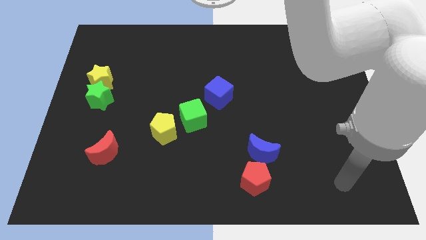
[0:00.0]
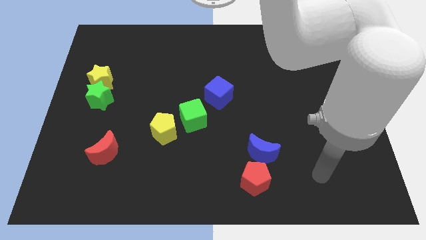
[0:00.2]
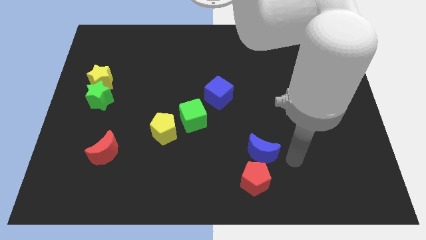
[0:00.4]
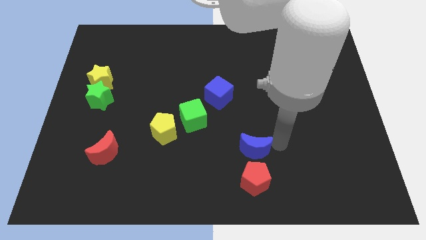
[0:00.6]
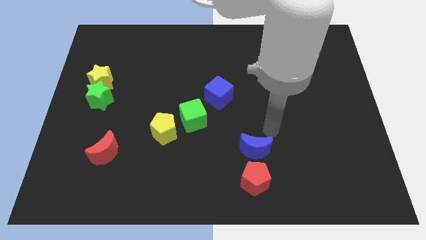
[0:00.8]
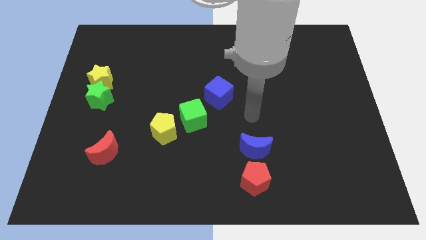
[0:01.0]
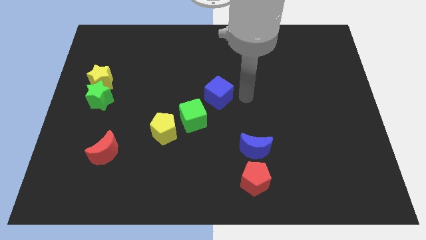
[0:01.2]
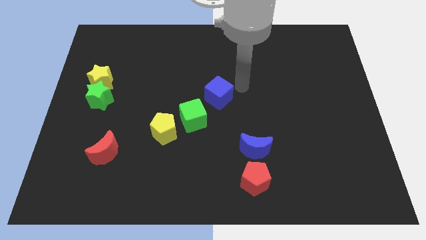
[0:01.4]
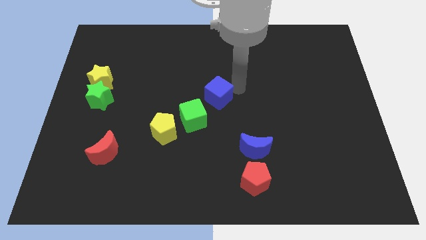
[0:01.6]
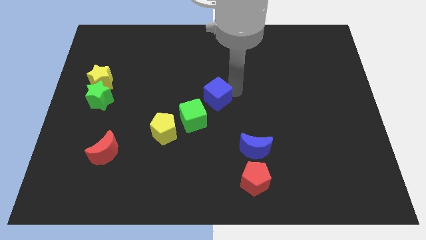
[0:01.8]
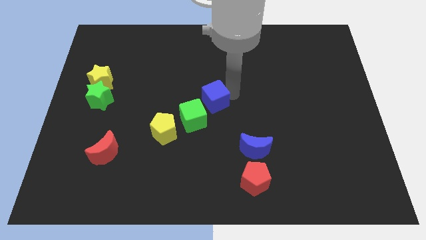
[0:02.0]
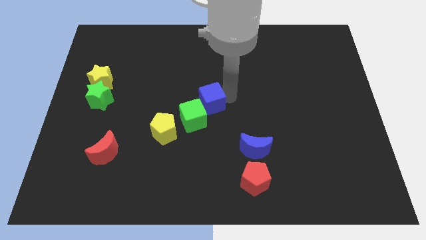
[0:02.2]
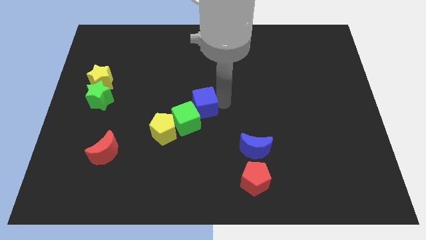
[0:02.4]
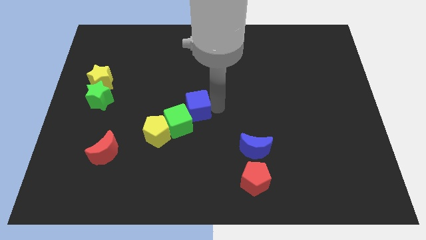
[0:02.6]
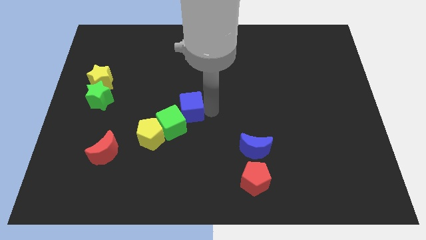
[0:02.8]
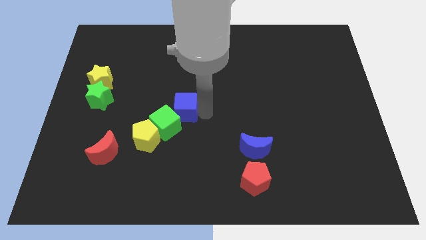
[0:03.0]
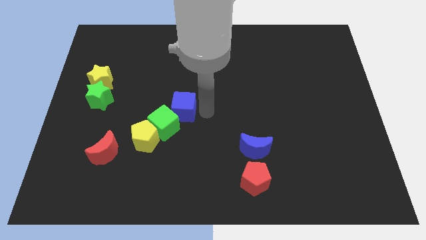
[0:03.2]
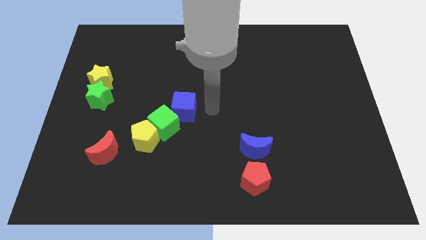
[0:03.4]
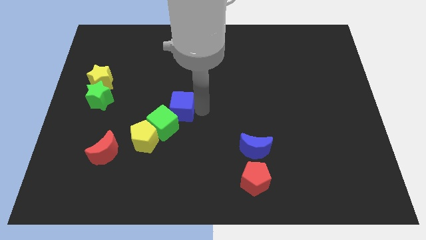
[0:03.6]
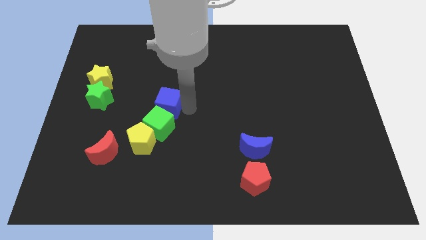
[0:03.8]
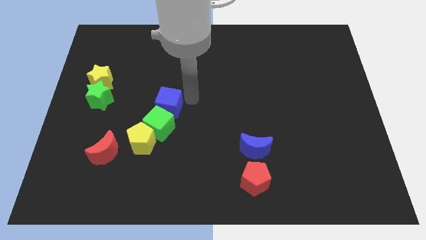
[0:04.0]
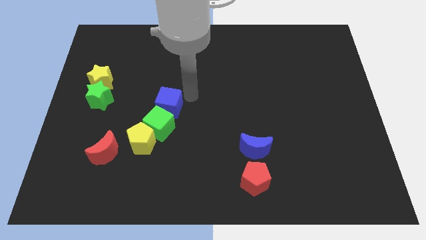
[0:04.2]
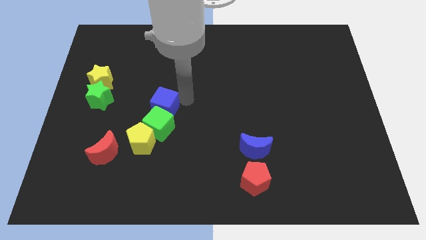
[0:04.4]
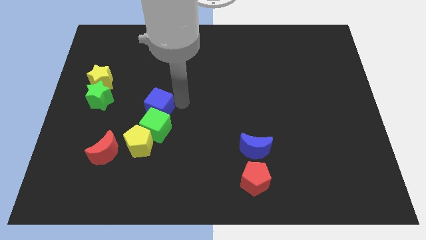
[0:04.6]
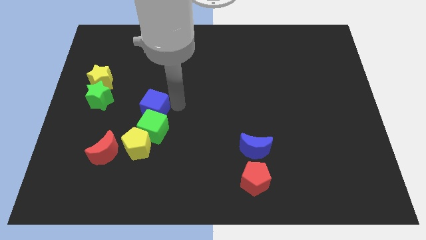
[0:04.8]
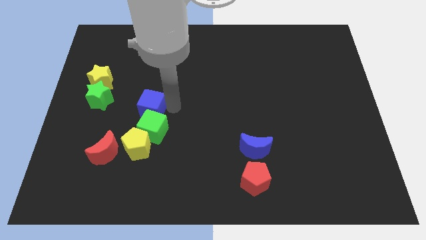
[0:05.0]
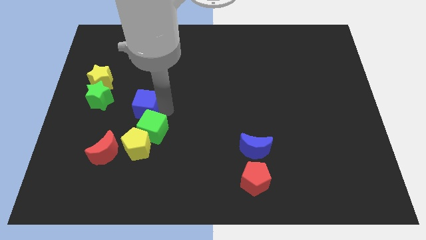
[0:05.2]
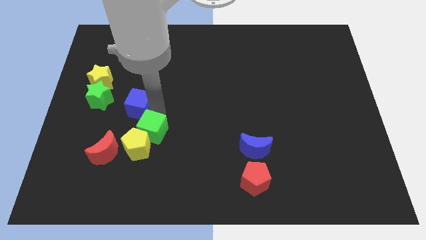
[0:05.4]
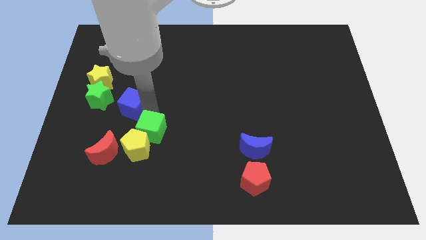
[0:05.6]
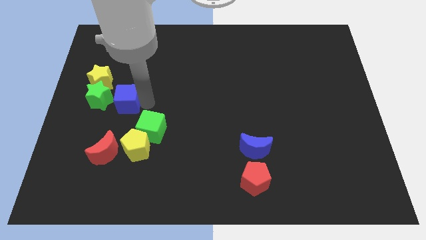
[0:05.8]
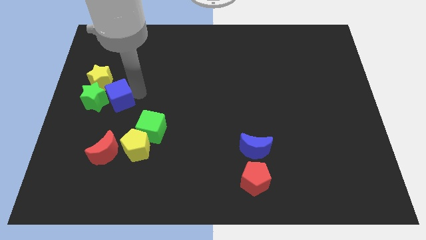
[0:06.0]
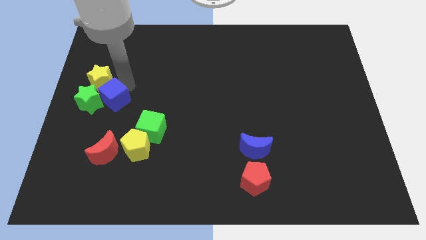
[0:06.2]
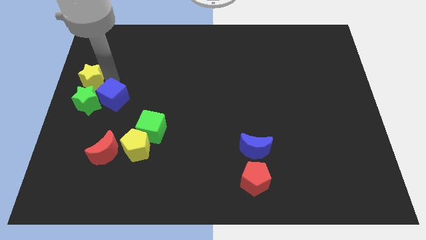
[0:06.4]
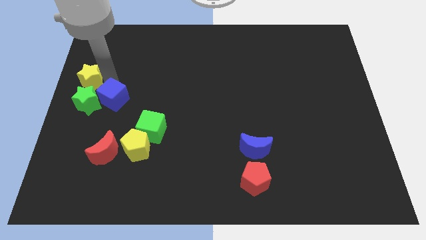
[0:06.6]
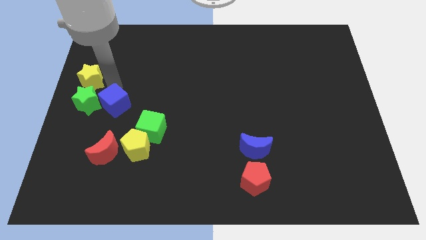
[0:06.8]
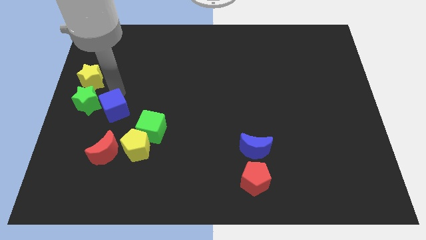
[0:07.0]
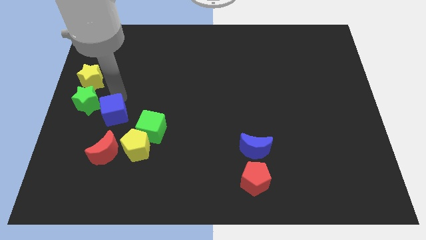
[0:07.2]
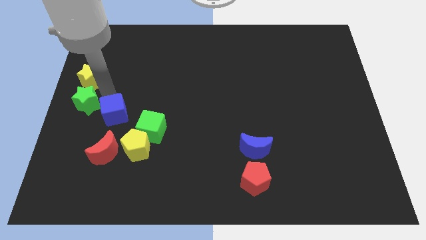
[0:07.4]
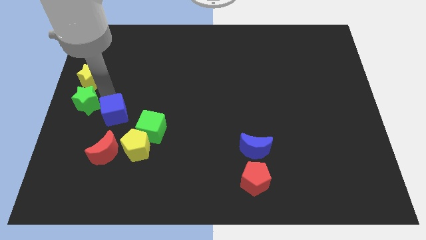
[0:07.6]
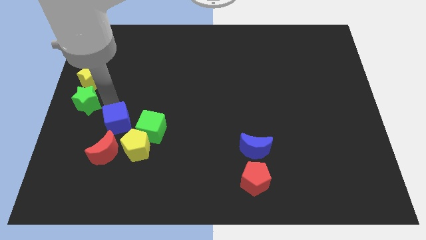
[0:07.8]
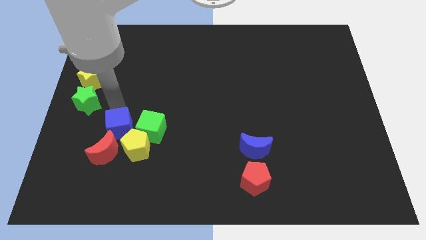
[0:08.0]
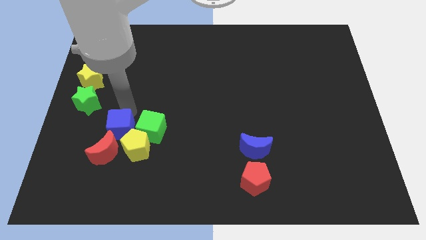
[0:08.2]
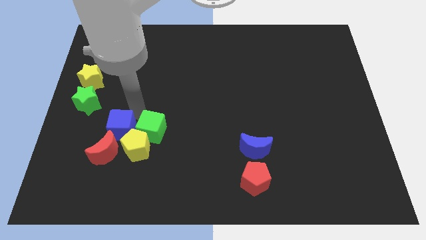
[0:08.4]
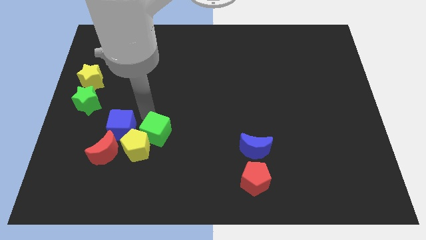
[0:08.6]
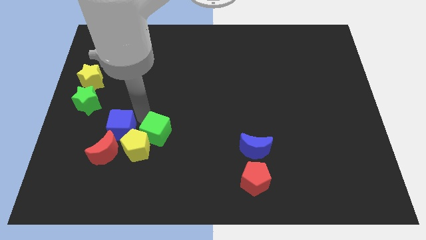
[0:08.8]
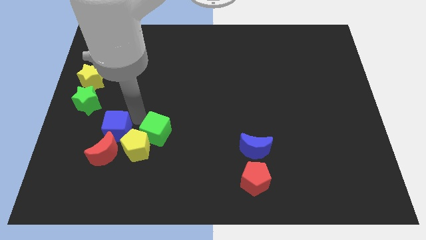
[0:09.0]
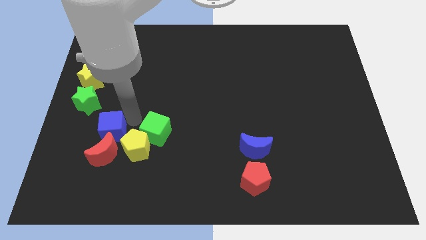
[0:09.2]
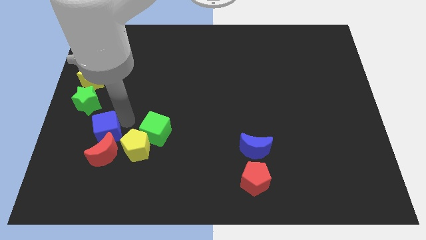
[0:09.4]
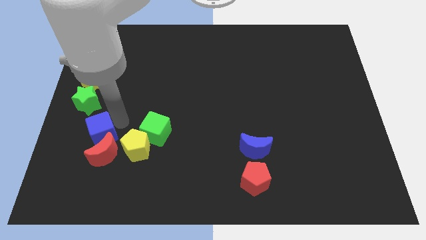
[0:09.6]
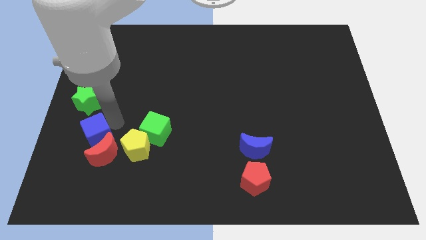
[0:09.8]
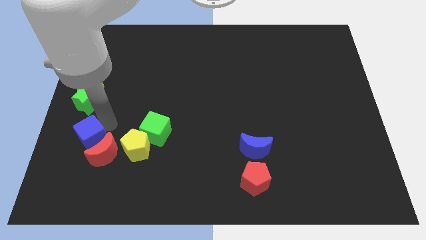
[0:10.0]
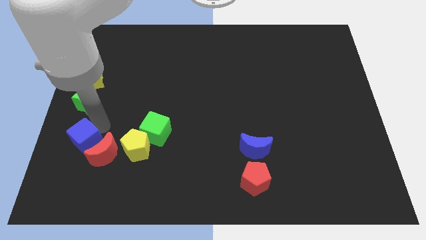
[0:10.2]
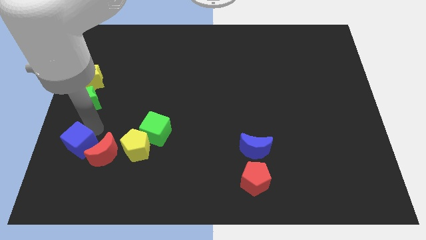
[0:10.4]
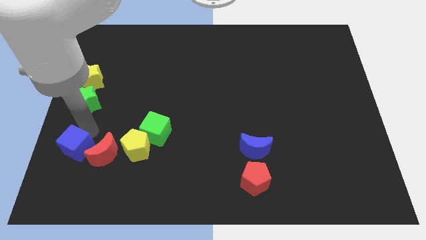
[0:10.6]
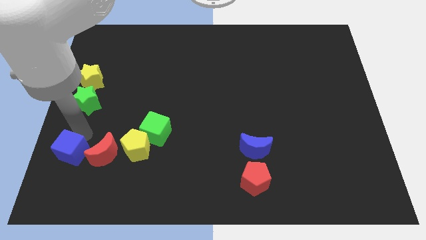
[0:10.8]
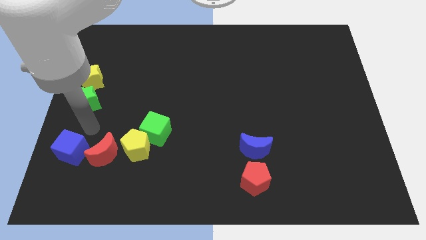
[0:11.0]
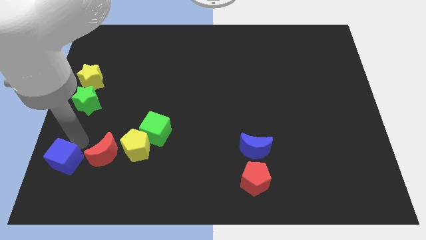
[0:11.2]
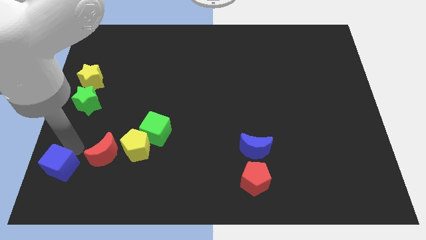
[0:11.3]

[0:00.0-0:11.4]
slide the blue cube to the bottom left of the board

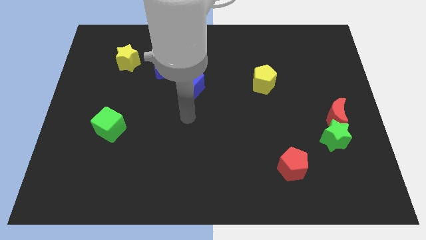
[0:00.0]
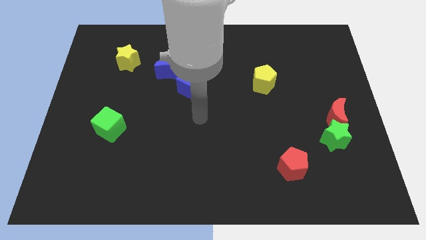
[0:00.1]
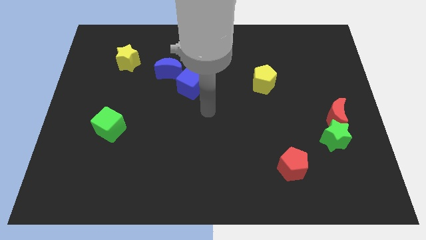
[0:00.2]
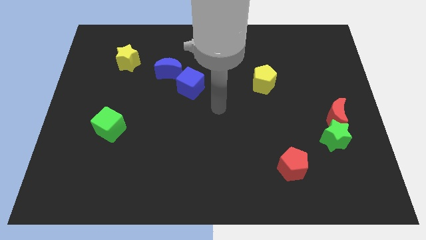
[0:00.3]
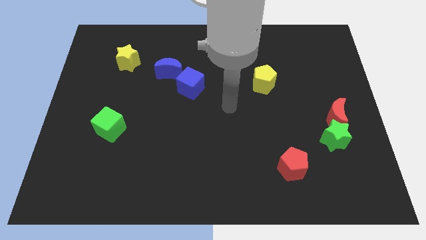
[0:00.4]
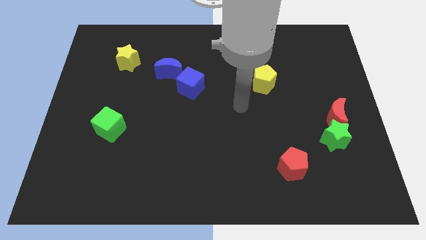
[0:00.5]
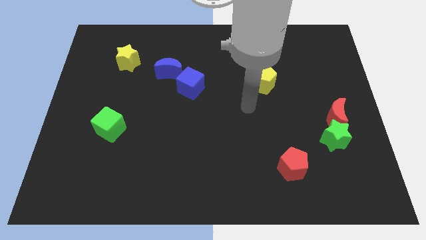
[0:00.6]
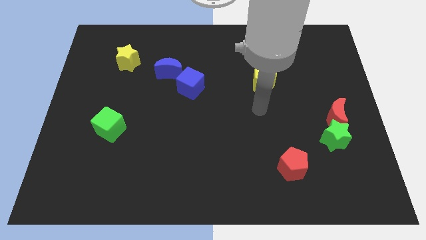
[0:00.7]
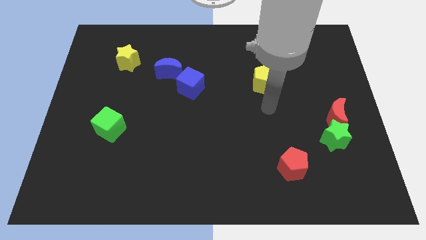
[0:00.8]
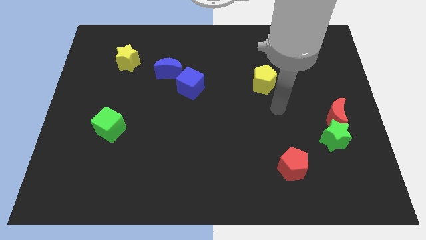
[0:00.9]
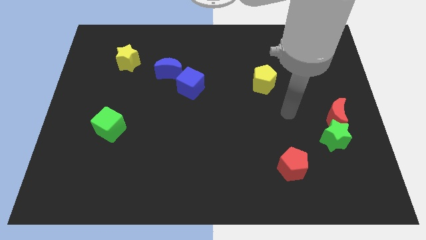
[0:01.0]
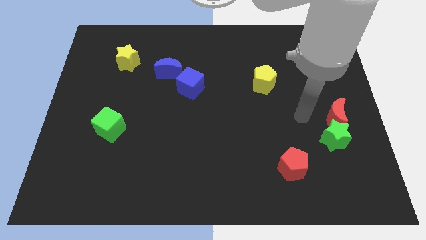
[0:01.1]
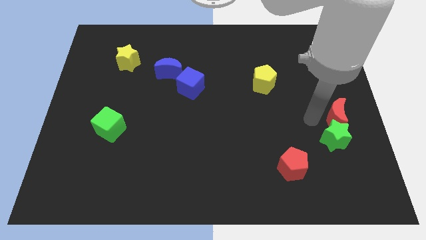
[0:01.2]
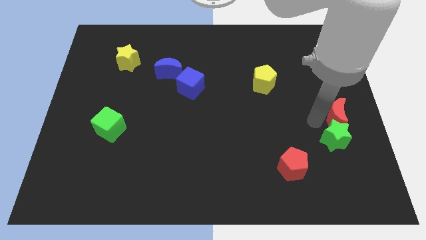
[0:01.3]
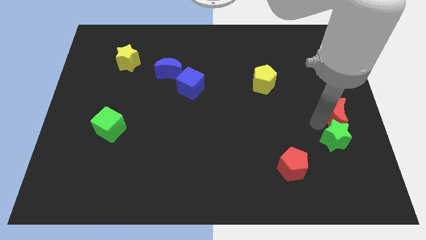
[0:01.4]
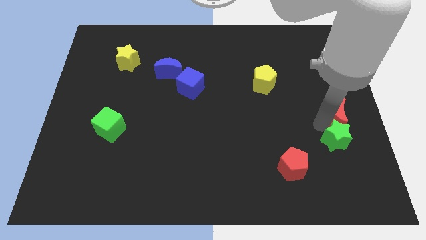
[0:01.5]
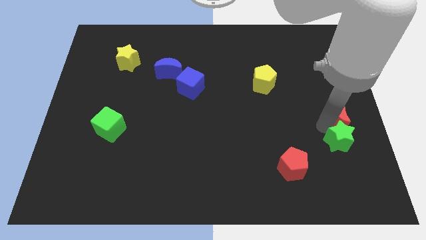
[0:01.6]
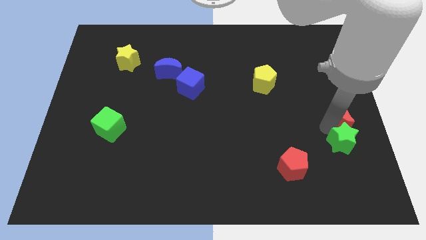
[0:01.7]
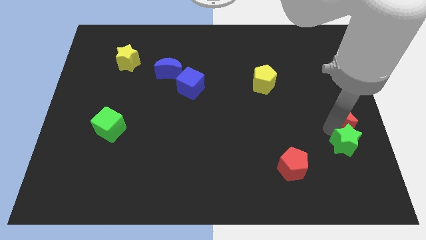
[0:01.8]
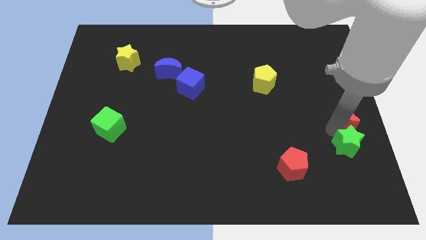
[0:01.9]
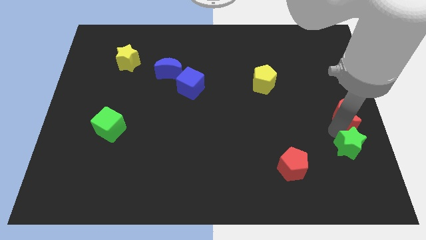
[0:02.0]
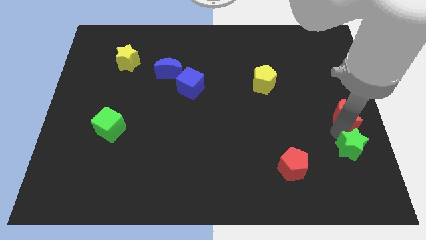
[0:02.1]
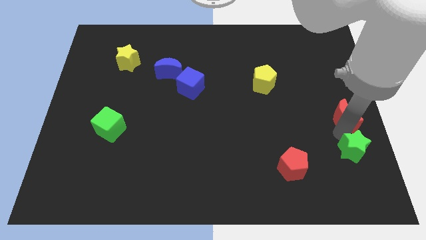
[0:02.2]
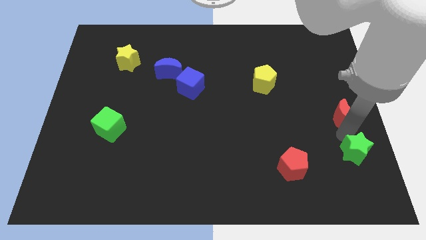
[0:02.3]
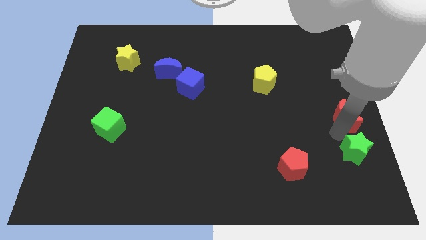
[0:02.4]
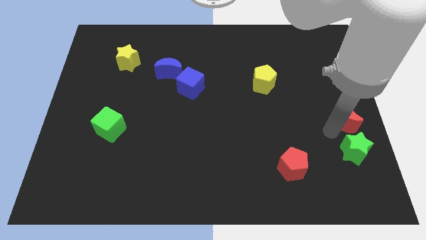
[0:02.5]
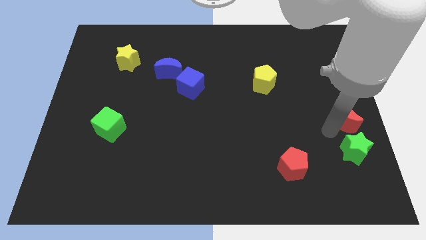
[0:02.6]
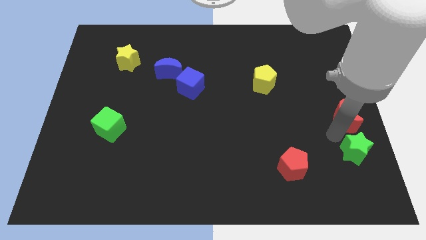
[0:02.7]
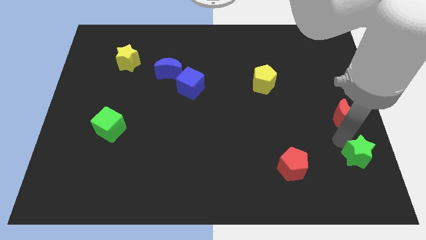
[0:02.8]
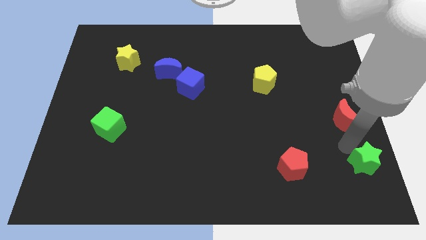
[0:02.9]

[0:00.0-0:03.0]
put the green star to the bottom right corner
